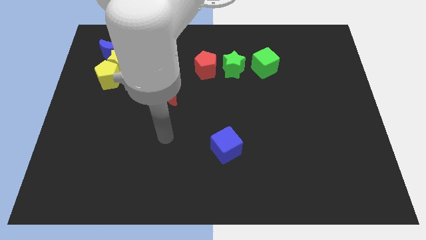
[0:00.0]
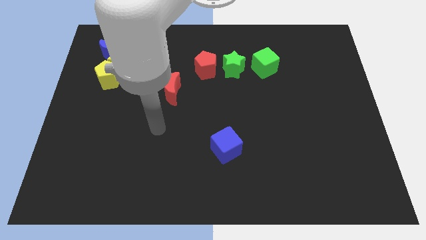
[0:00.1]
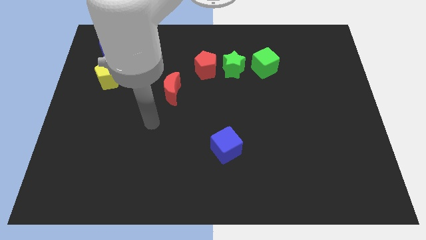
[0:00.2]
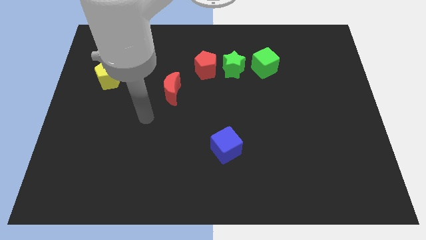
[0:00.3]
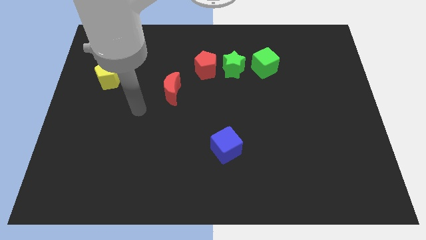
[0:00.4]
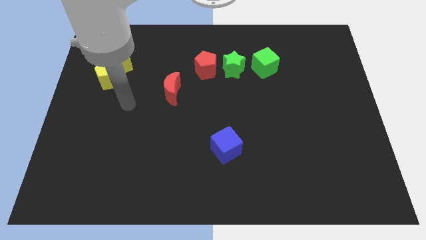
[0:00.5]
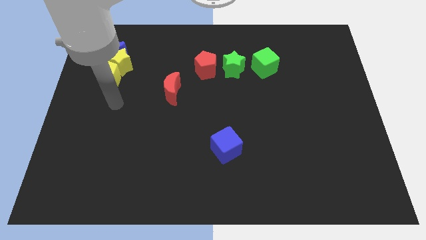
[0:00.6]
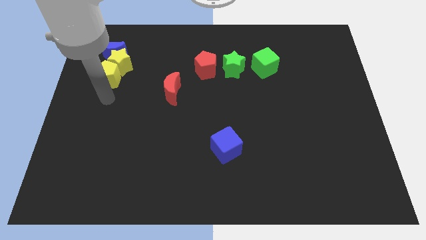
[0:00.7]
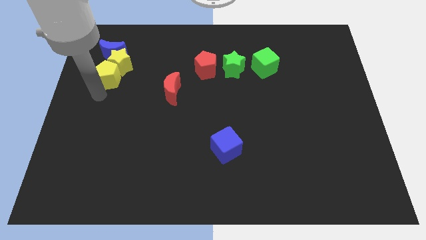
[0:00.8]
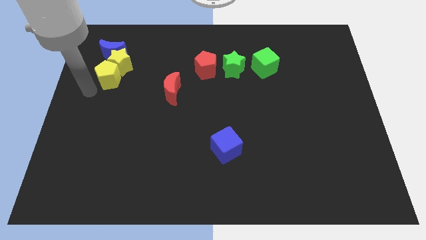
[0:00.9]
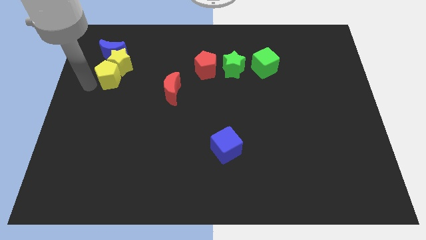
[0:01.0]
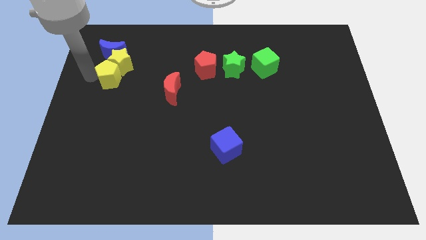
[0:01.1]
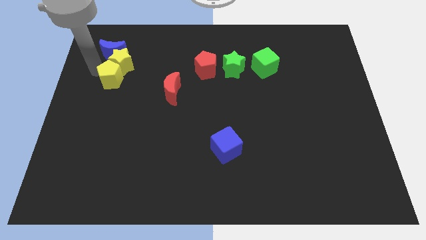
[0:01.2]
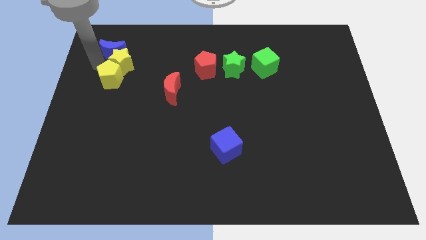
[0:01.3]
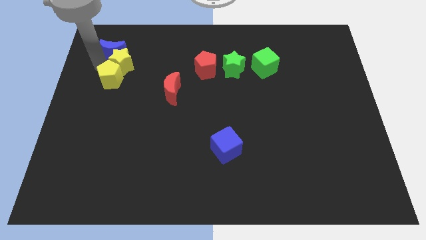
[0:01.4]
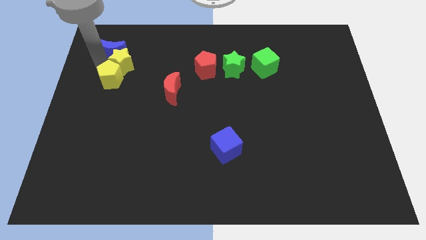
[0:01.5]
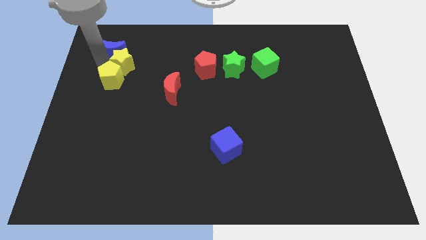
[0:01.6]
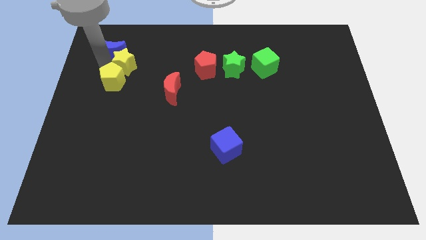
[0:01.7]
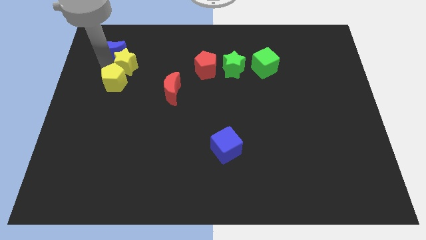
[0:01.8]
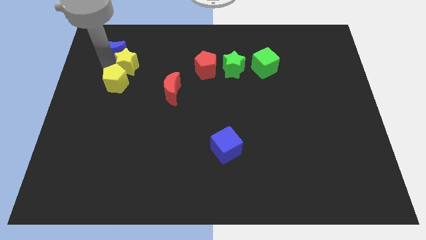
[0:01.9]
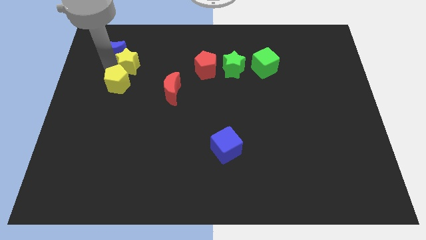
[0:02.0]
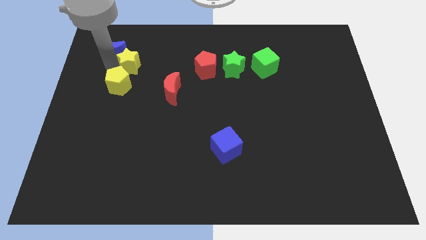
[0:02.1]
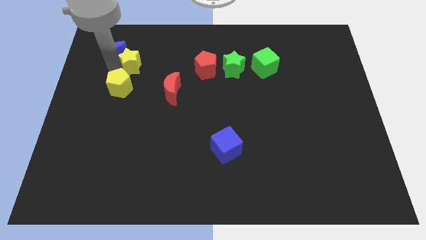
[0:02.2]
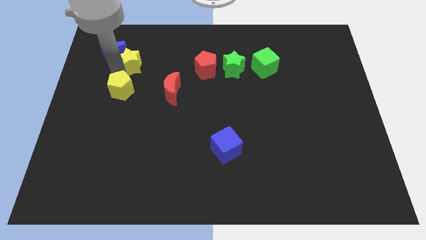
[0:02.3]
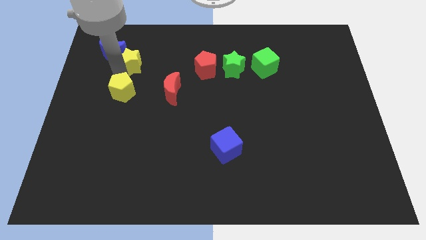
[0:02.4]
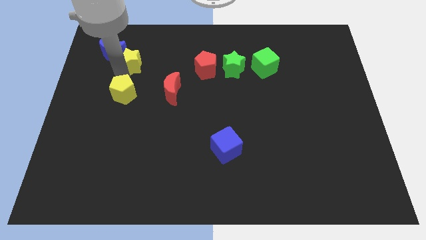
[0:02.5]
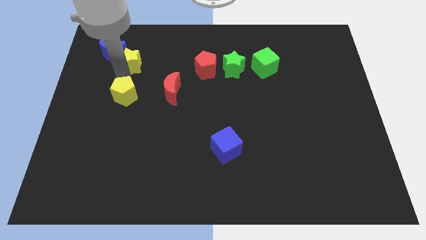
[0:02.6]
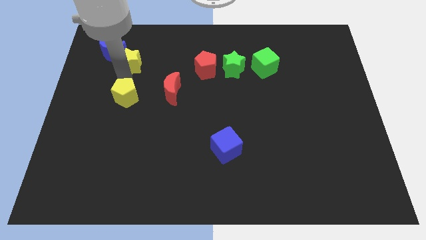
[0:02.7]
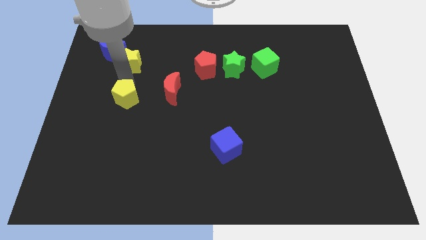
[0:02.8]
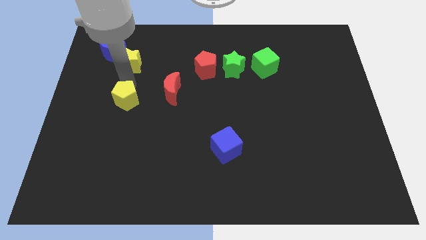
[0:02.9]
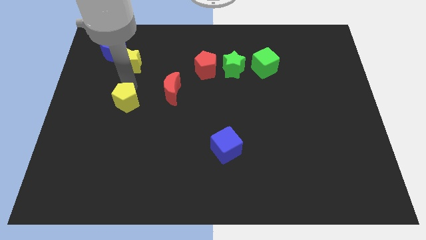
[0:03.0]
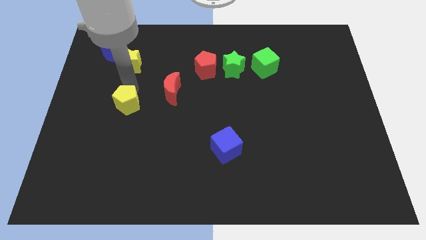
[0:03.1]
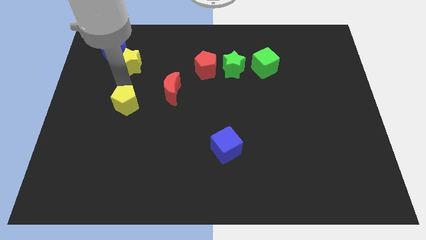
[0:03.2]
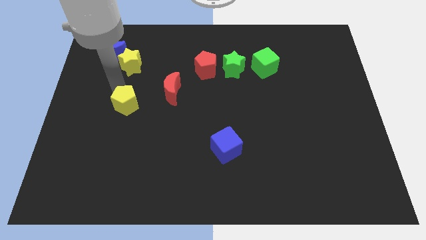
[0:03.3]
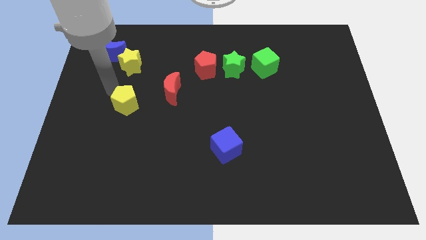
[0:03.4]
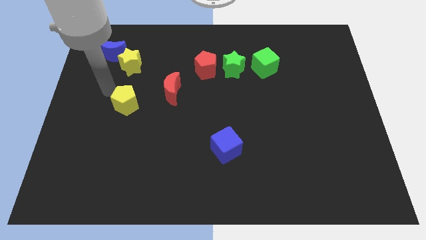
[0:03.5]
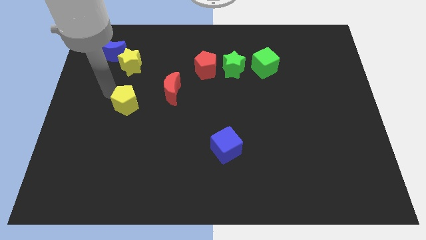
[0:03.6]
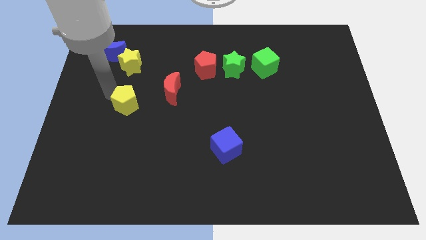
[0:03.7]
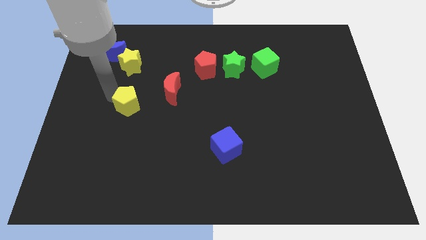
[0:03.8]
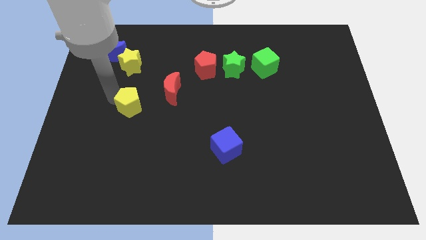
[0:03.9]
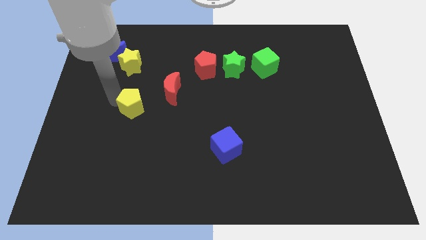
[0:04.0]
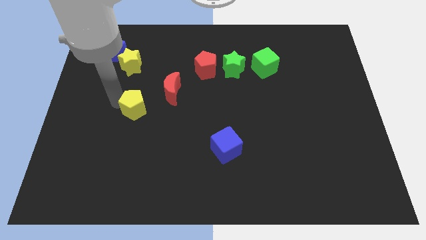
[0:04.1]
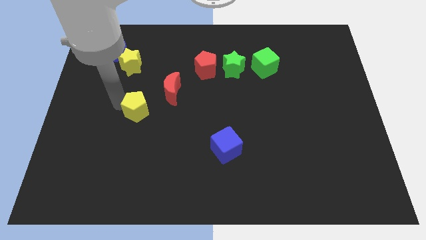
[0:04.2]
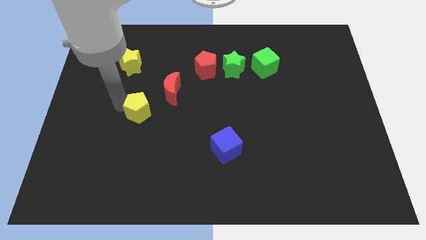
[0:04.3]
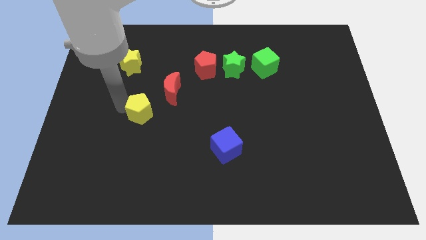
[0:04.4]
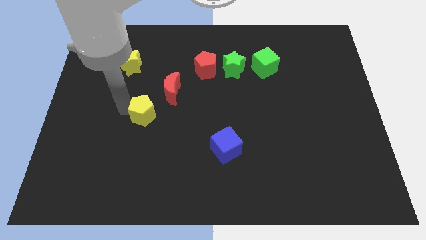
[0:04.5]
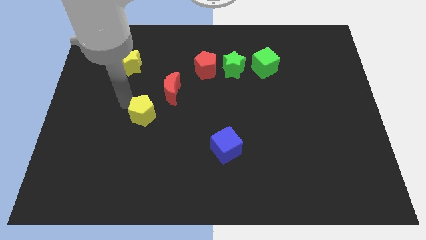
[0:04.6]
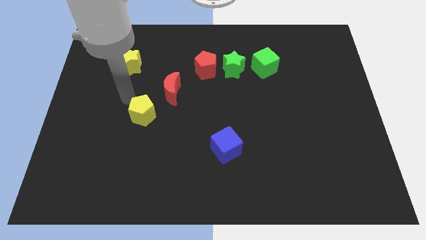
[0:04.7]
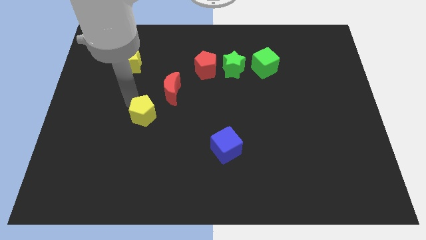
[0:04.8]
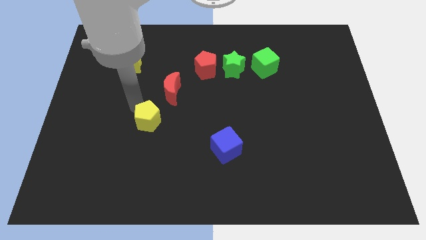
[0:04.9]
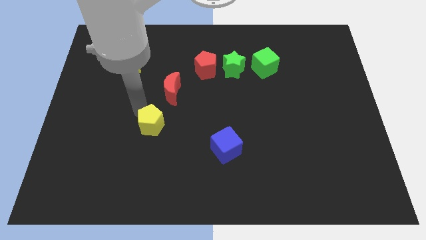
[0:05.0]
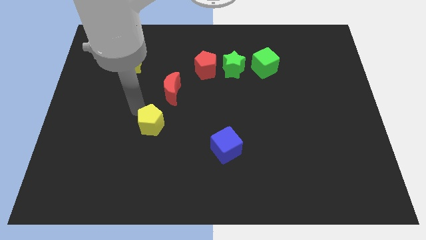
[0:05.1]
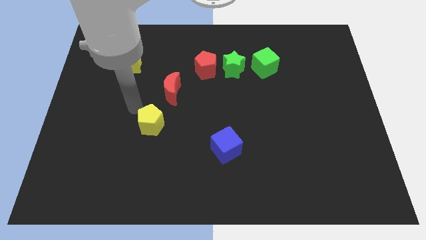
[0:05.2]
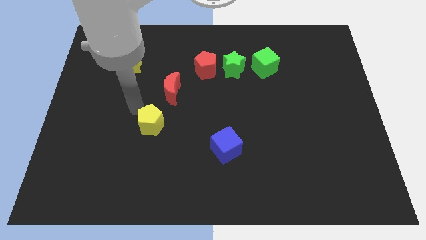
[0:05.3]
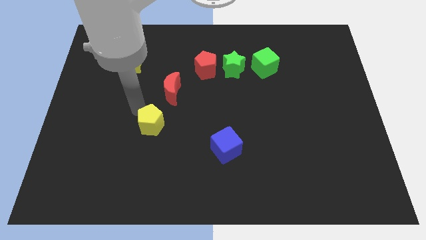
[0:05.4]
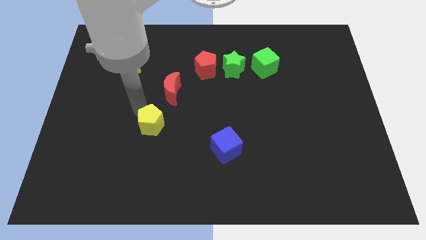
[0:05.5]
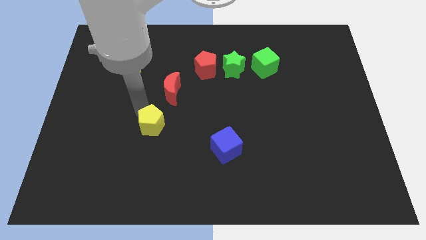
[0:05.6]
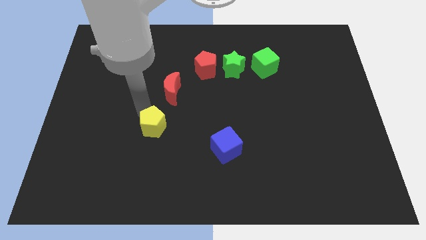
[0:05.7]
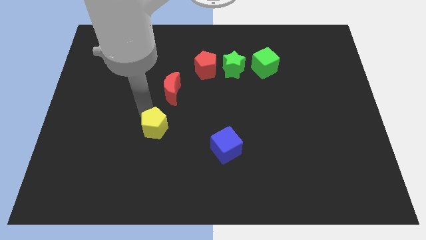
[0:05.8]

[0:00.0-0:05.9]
slide the yellow pentagon downwards and to the right diagonally

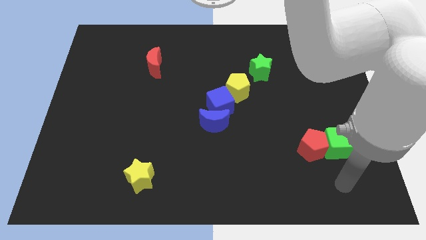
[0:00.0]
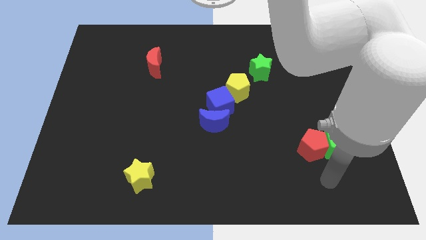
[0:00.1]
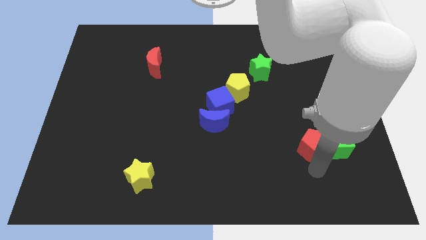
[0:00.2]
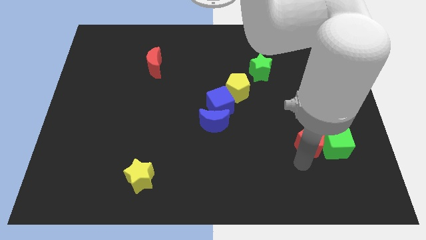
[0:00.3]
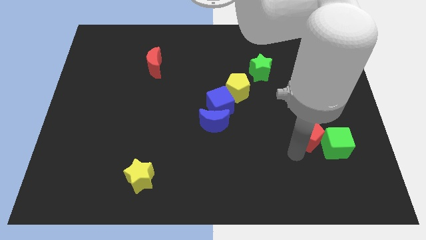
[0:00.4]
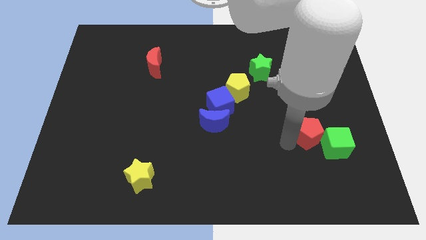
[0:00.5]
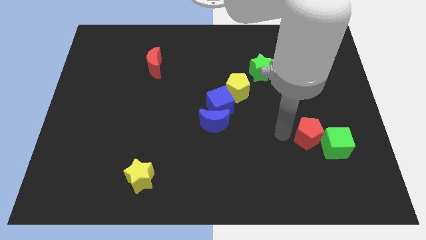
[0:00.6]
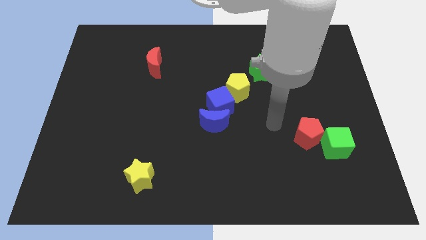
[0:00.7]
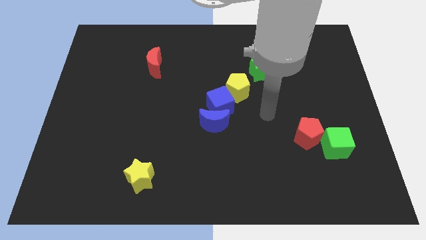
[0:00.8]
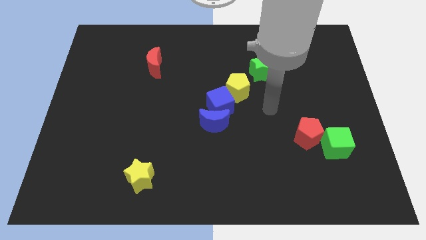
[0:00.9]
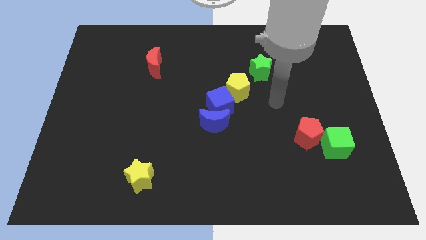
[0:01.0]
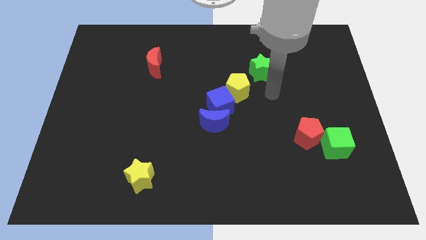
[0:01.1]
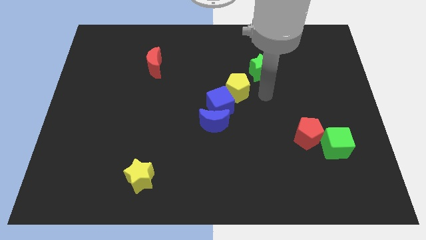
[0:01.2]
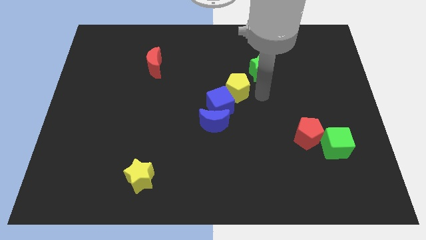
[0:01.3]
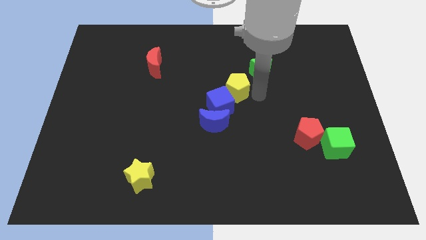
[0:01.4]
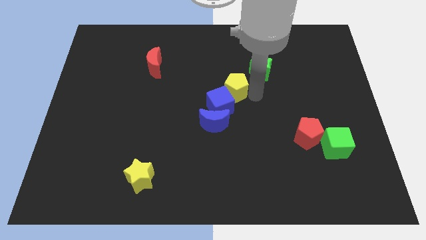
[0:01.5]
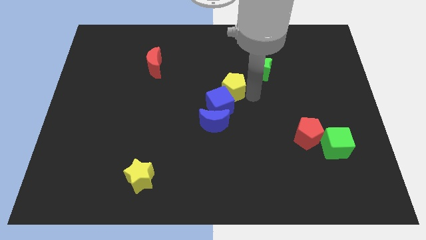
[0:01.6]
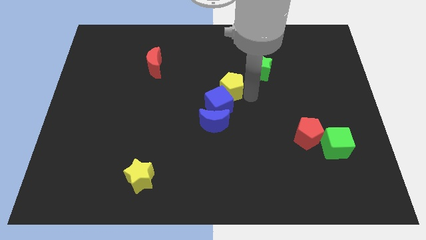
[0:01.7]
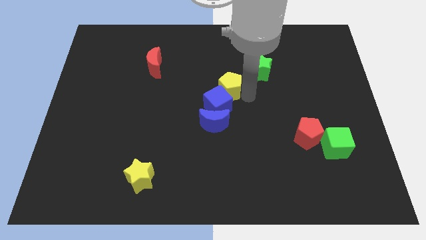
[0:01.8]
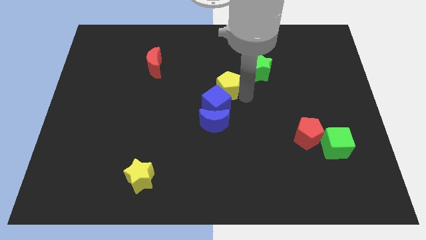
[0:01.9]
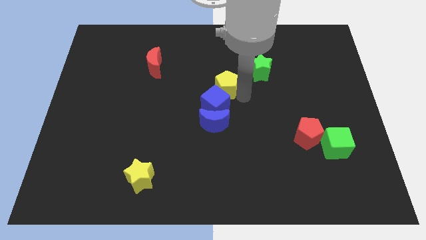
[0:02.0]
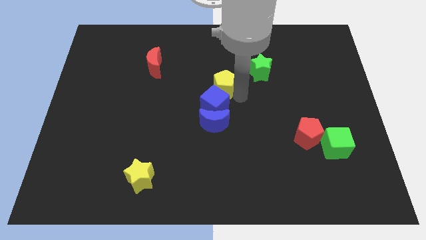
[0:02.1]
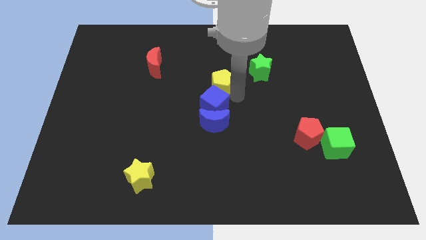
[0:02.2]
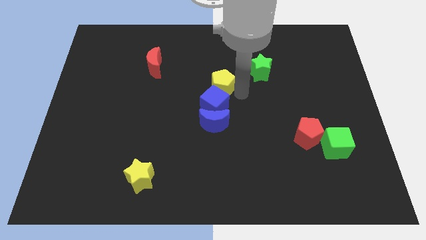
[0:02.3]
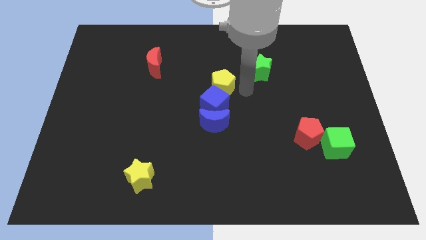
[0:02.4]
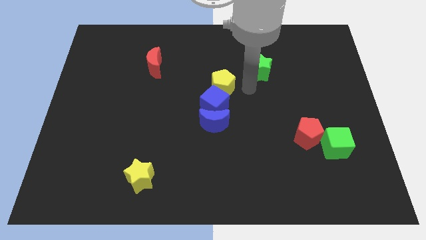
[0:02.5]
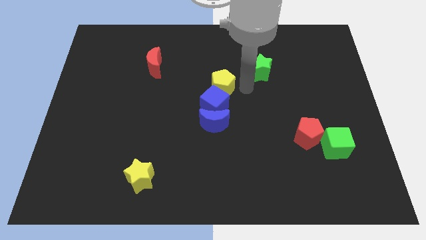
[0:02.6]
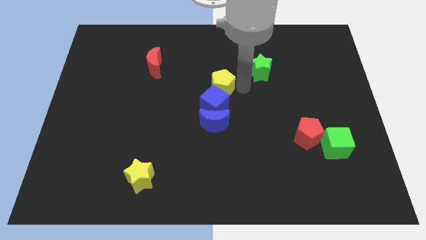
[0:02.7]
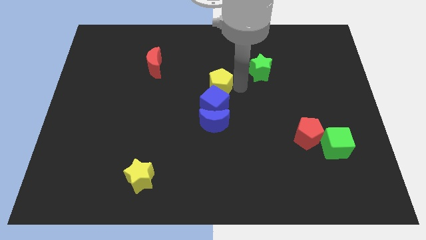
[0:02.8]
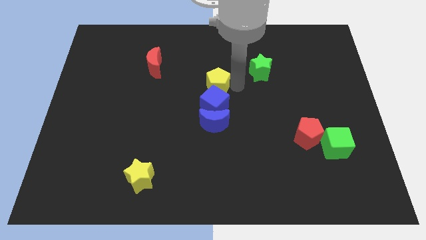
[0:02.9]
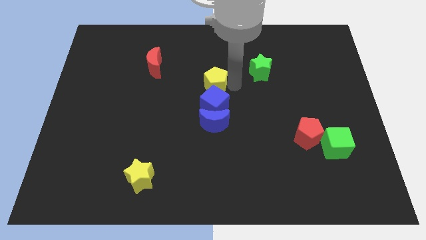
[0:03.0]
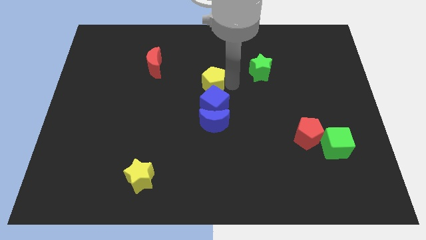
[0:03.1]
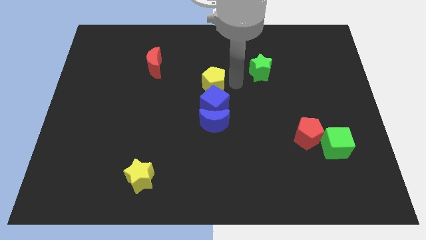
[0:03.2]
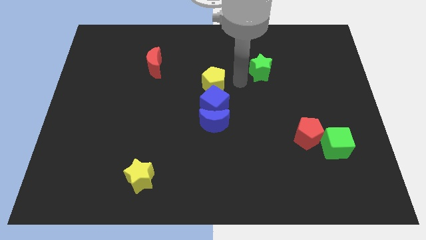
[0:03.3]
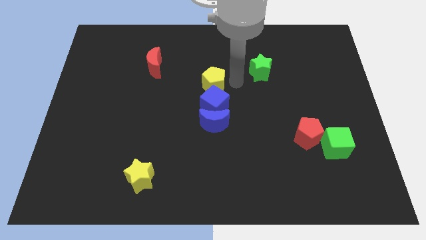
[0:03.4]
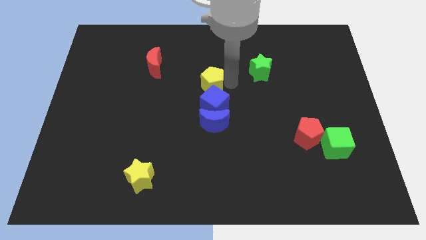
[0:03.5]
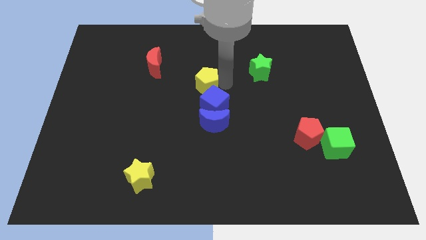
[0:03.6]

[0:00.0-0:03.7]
slightly move the yellow pentagon to the left
